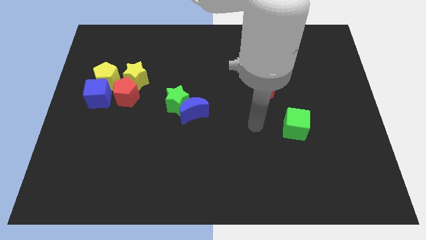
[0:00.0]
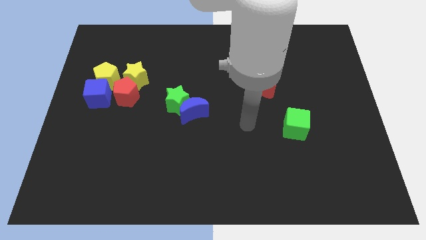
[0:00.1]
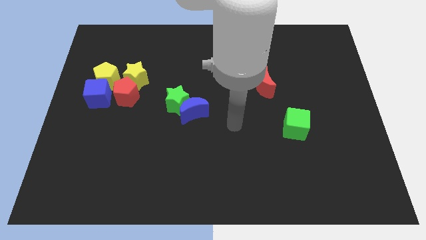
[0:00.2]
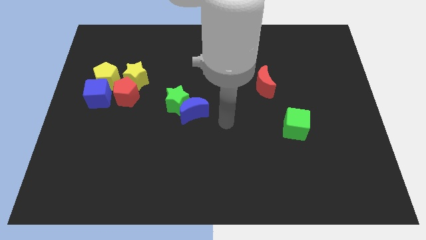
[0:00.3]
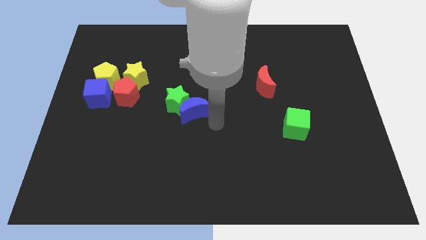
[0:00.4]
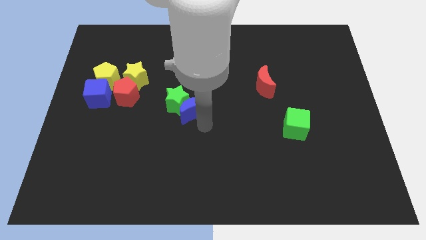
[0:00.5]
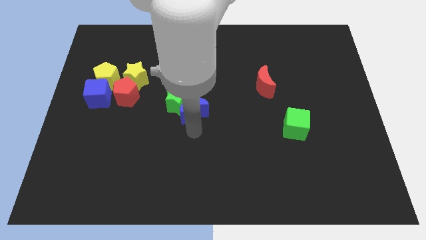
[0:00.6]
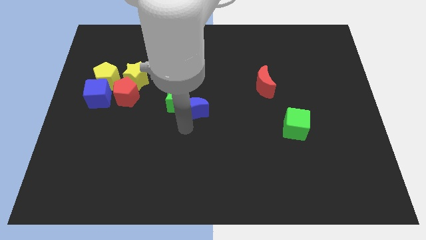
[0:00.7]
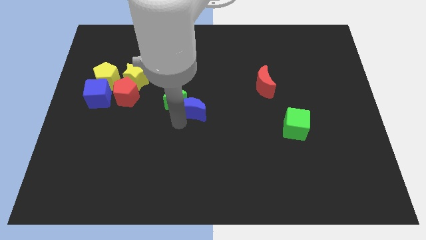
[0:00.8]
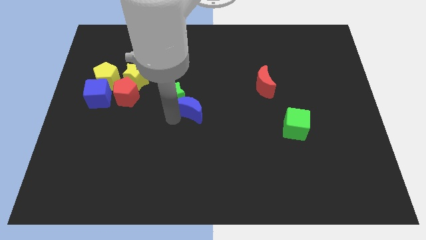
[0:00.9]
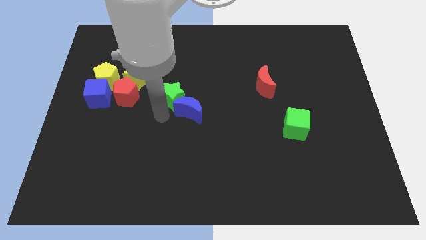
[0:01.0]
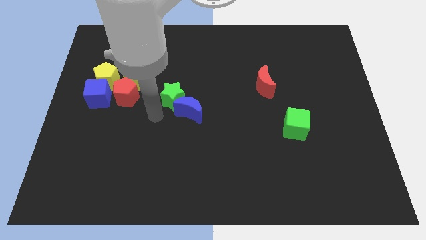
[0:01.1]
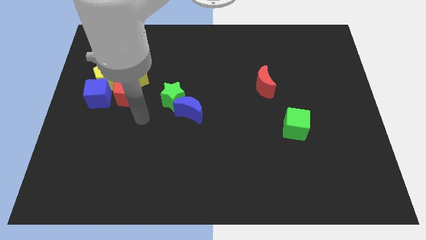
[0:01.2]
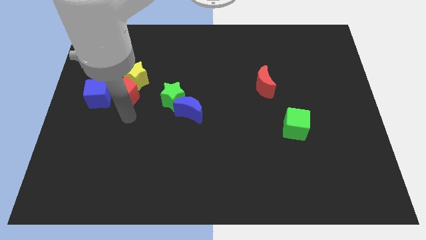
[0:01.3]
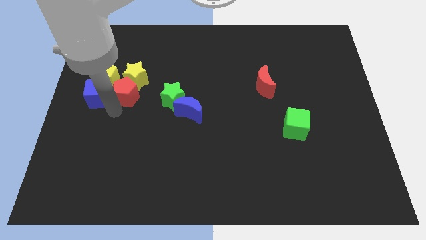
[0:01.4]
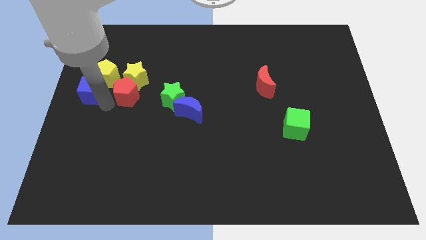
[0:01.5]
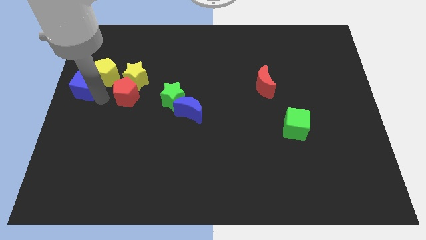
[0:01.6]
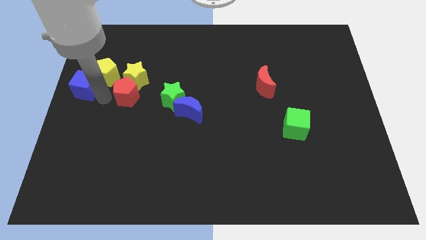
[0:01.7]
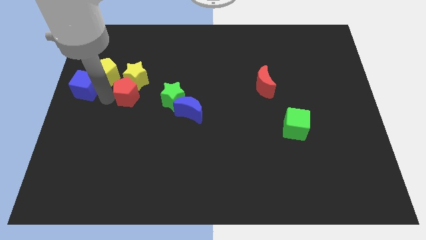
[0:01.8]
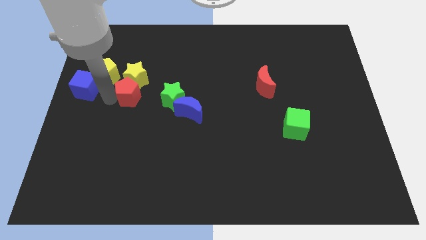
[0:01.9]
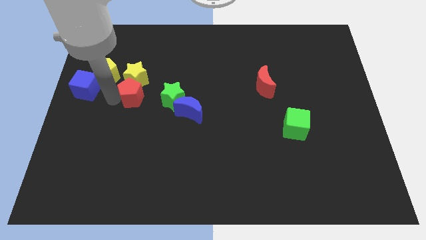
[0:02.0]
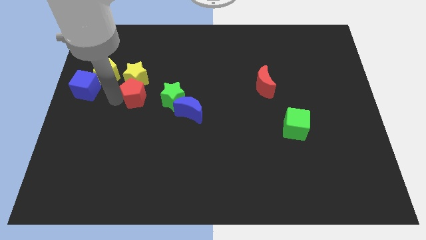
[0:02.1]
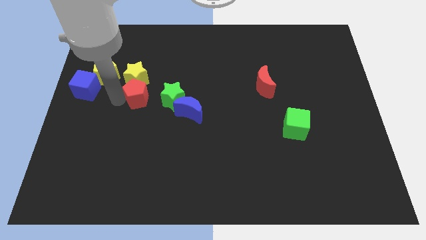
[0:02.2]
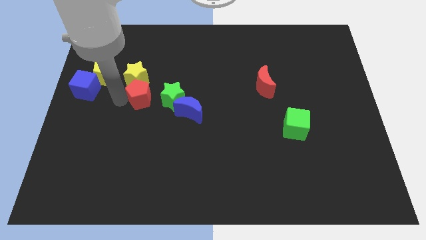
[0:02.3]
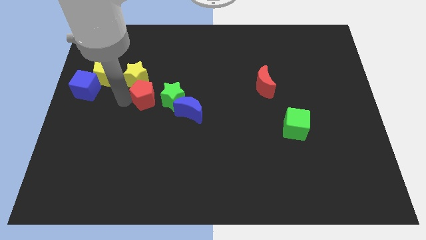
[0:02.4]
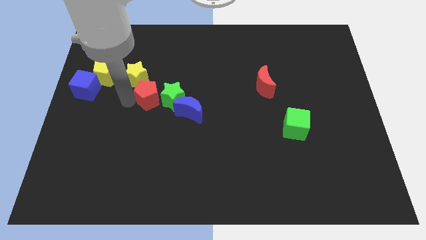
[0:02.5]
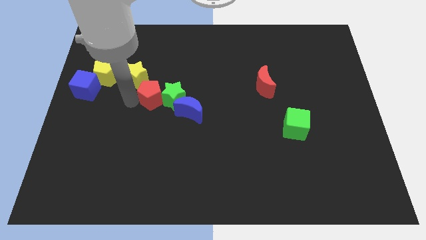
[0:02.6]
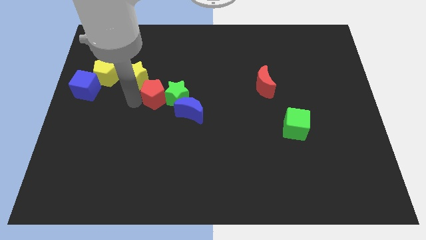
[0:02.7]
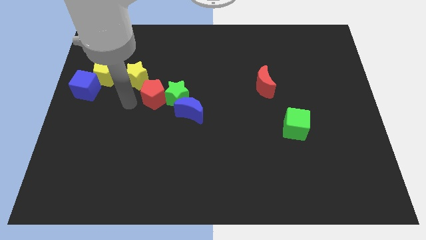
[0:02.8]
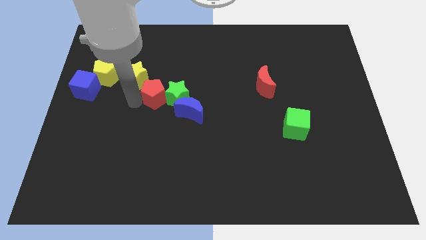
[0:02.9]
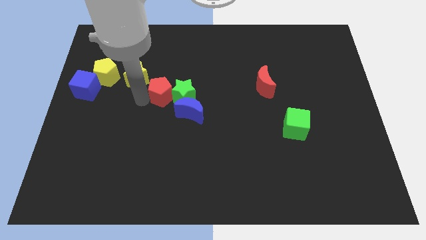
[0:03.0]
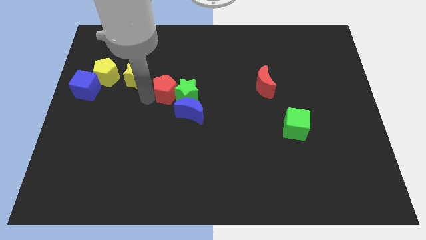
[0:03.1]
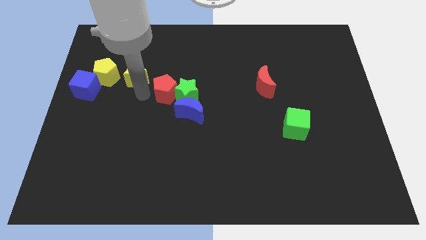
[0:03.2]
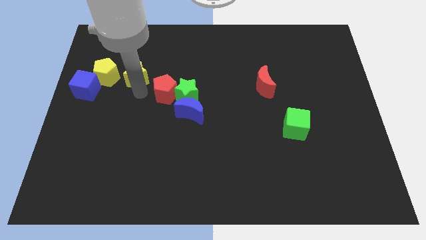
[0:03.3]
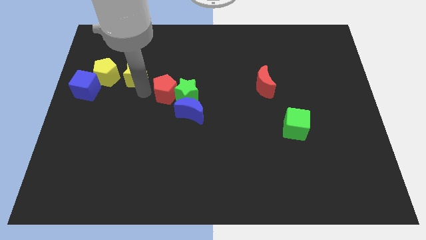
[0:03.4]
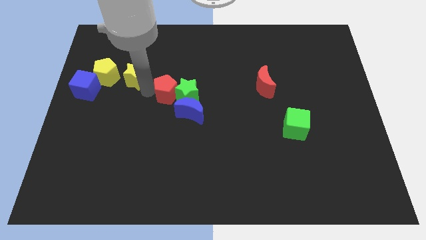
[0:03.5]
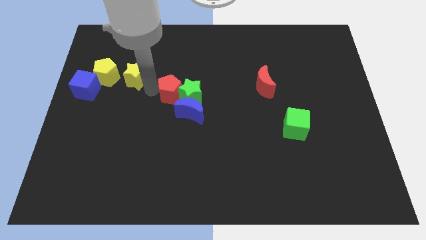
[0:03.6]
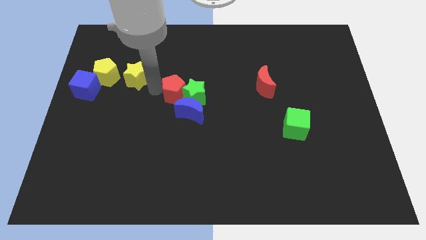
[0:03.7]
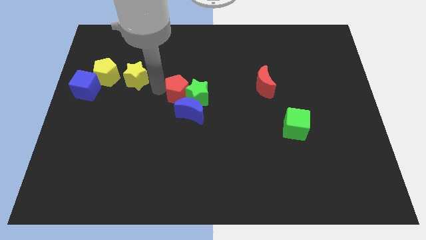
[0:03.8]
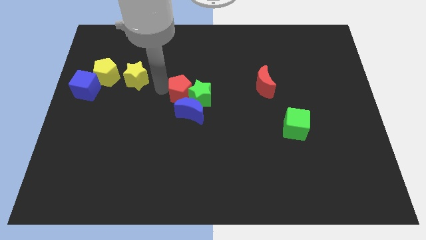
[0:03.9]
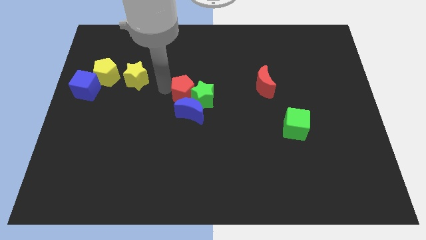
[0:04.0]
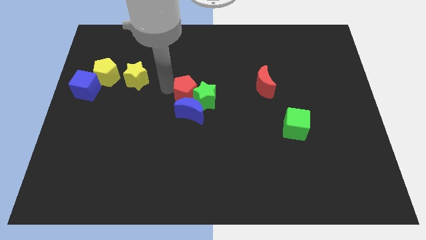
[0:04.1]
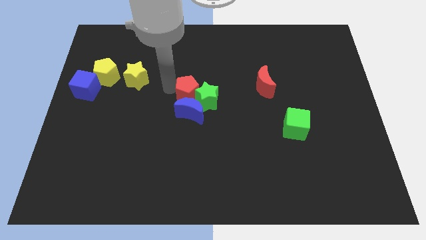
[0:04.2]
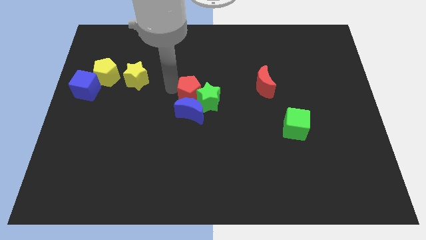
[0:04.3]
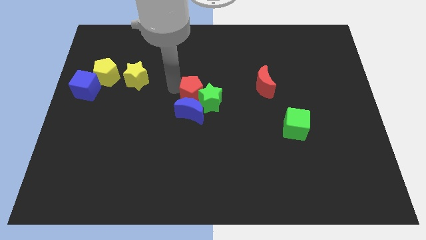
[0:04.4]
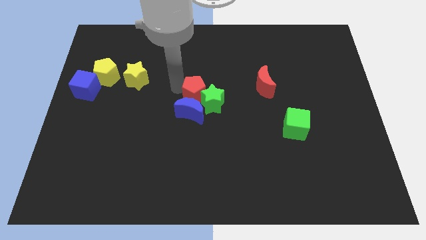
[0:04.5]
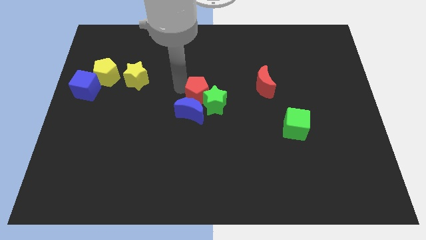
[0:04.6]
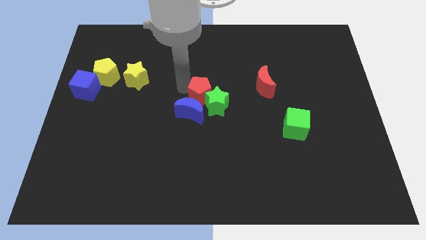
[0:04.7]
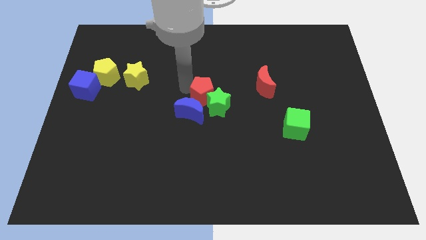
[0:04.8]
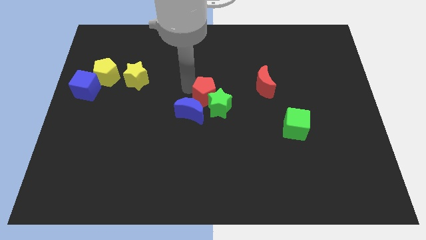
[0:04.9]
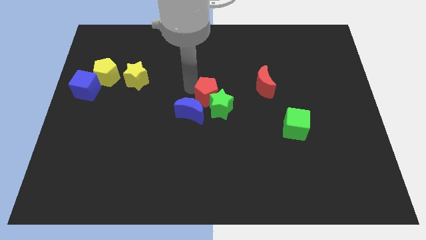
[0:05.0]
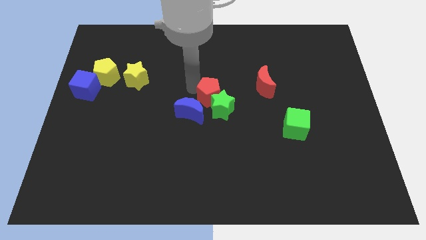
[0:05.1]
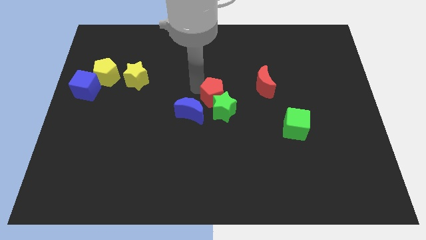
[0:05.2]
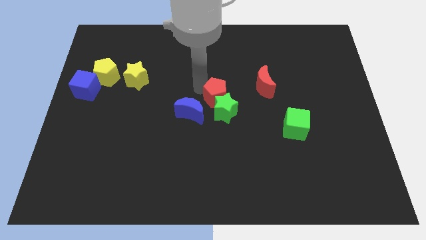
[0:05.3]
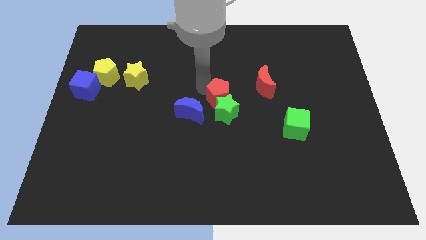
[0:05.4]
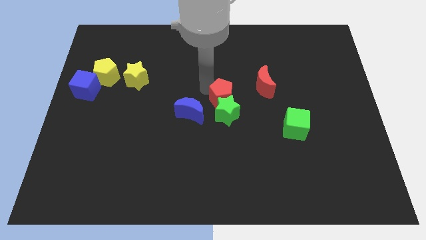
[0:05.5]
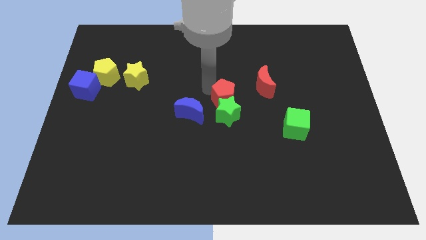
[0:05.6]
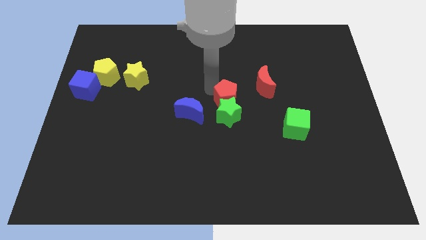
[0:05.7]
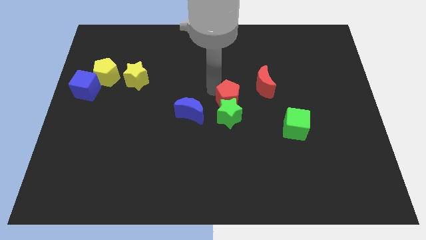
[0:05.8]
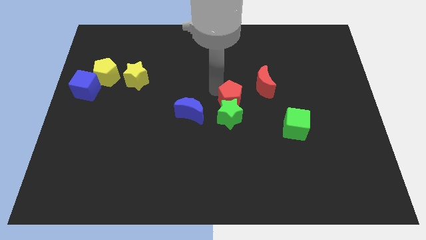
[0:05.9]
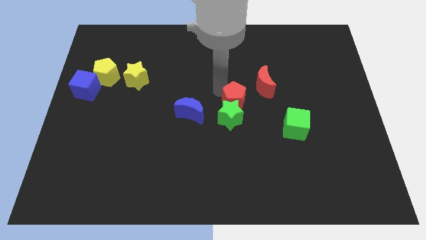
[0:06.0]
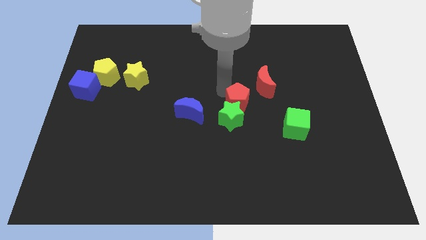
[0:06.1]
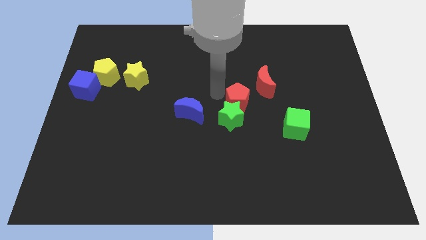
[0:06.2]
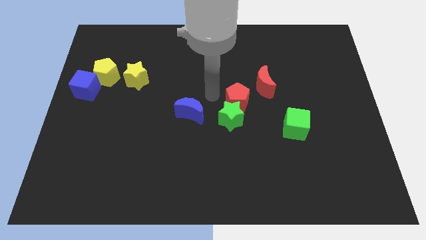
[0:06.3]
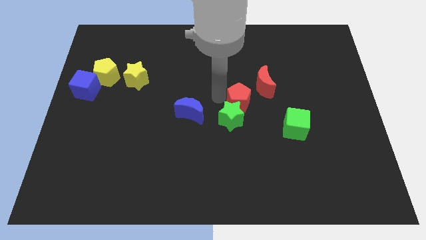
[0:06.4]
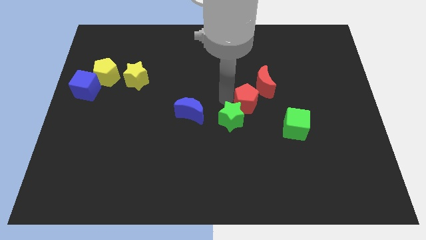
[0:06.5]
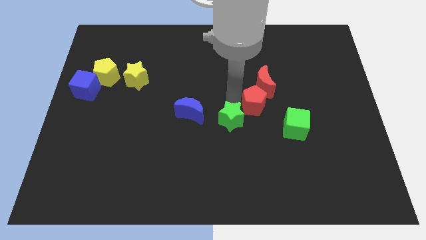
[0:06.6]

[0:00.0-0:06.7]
put the red pentagon diagonally up and to the left of the green cube

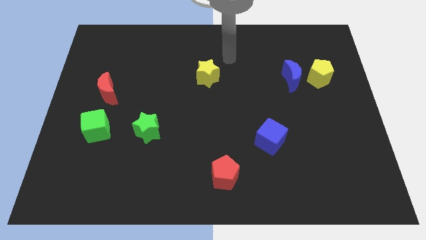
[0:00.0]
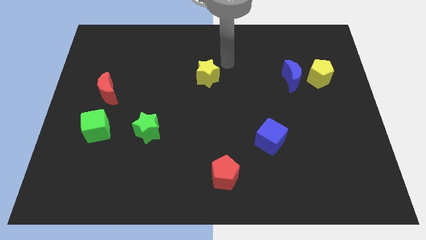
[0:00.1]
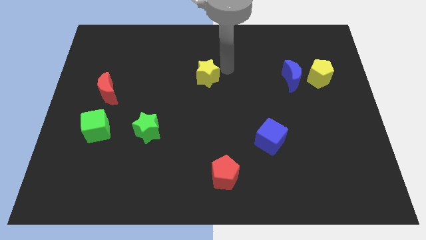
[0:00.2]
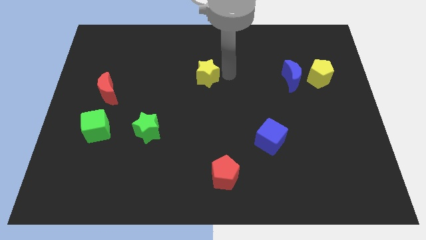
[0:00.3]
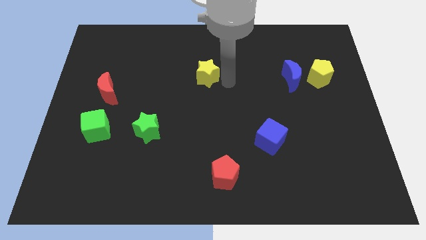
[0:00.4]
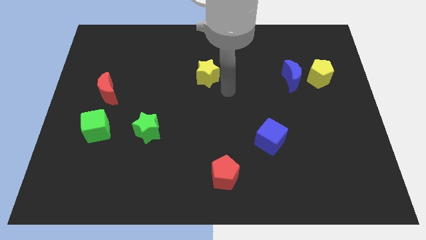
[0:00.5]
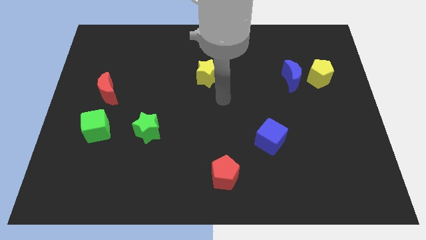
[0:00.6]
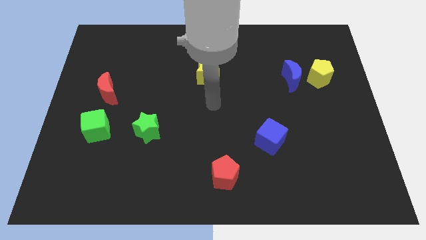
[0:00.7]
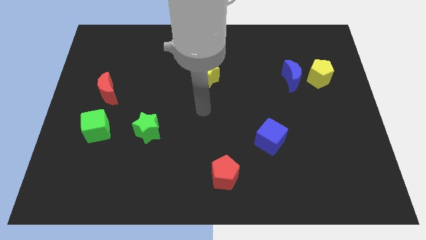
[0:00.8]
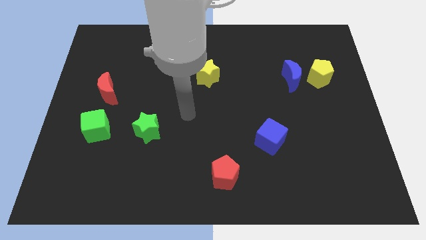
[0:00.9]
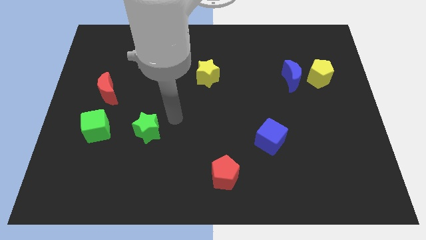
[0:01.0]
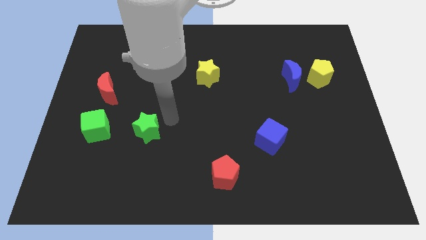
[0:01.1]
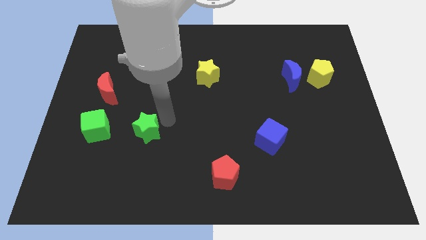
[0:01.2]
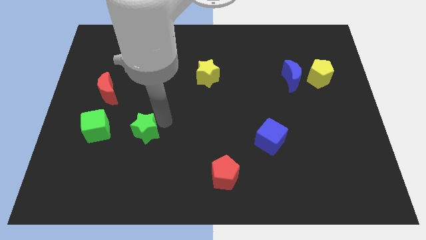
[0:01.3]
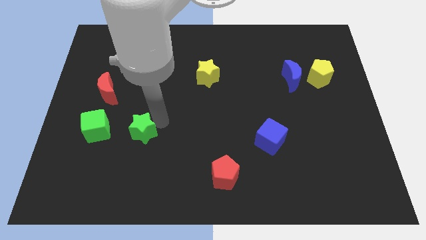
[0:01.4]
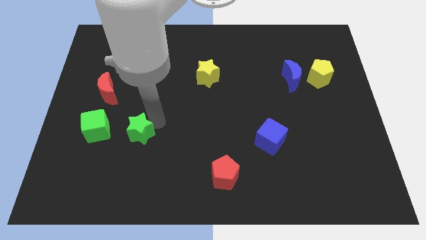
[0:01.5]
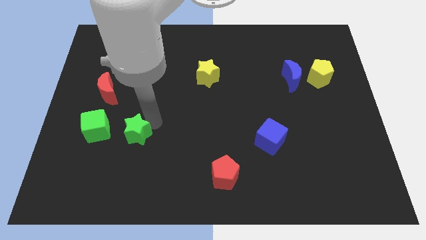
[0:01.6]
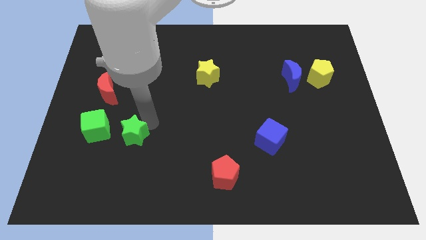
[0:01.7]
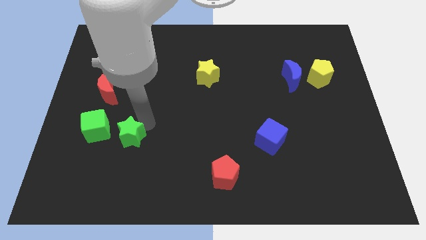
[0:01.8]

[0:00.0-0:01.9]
push the green star to the bottom right of the green cube
